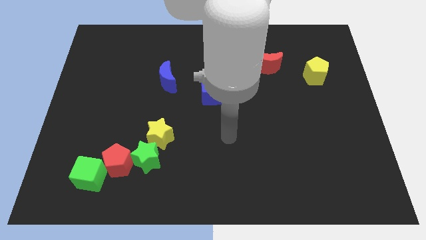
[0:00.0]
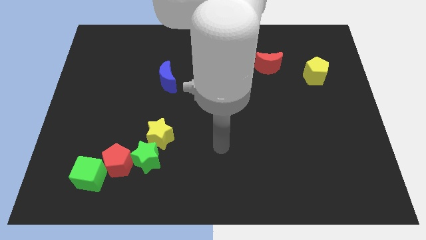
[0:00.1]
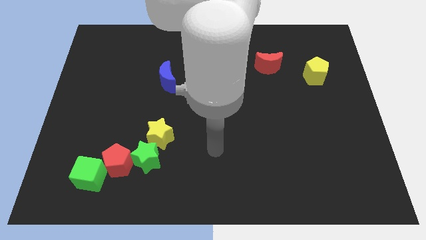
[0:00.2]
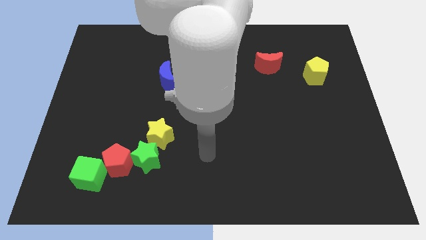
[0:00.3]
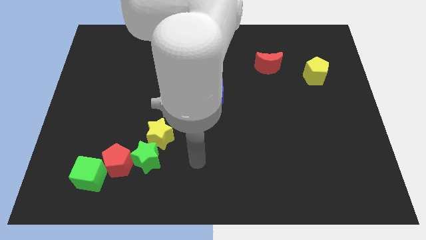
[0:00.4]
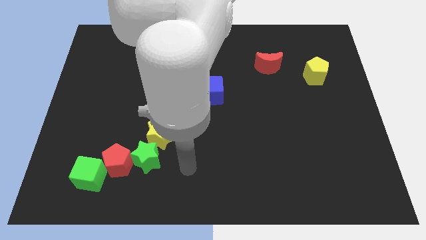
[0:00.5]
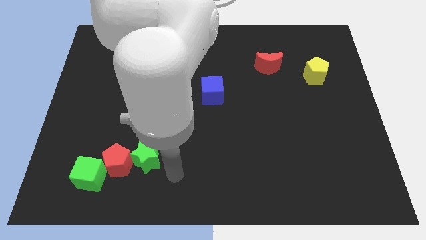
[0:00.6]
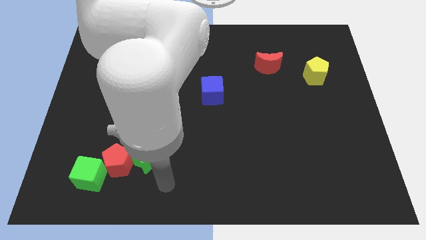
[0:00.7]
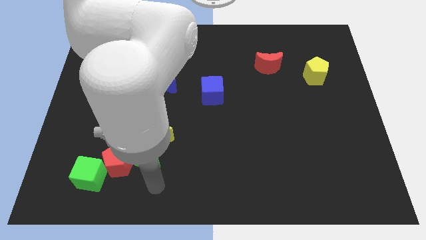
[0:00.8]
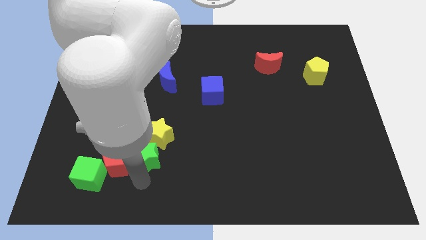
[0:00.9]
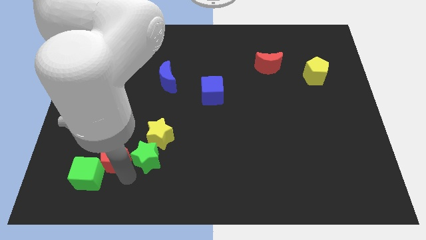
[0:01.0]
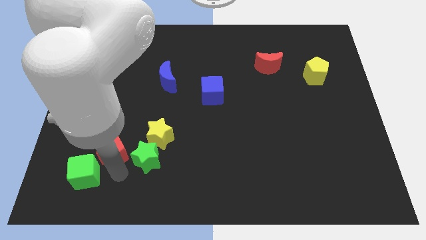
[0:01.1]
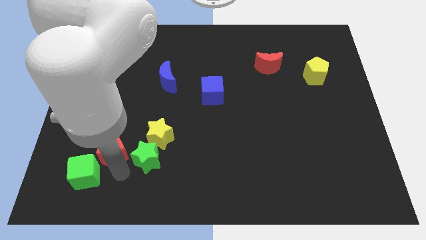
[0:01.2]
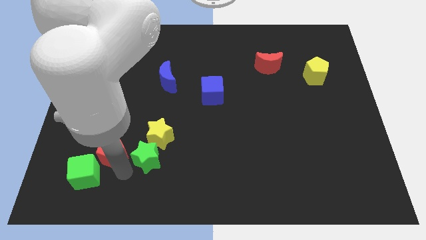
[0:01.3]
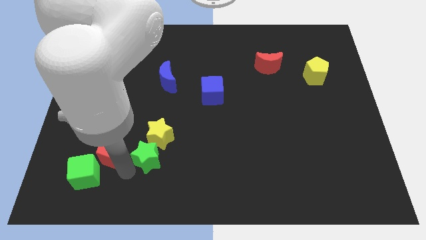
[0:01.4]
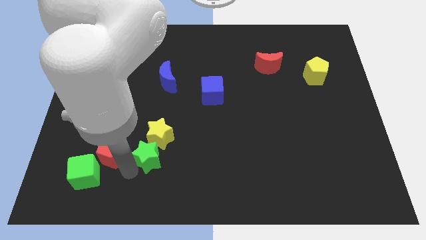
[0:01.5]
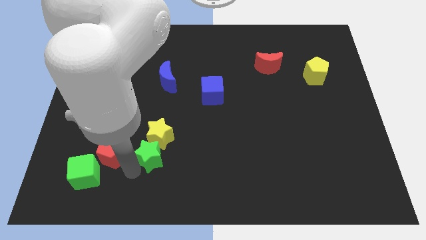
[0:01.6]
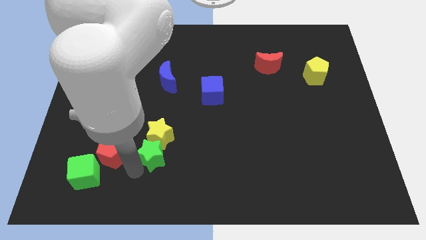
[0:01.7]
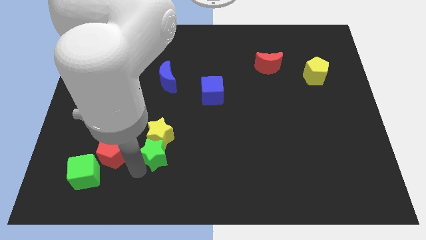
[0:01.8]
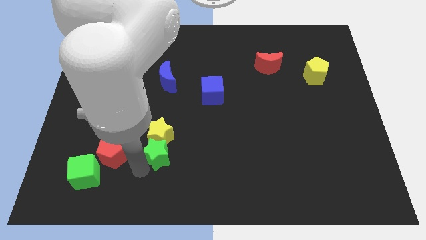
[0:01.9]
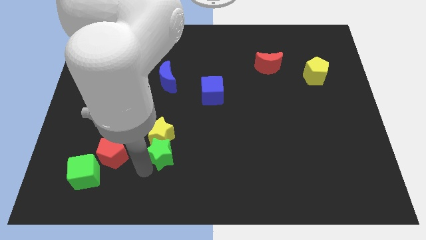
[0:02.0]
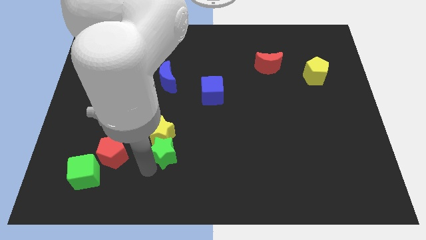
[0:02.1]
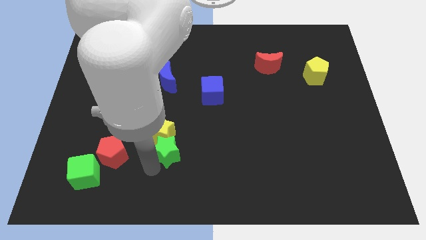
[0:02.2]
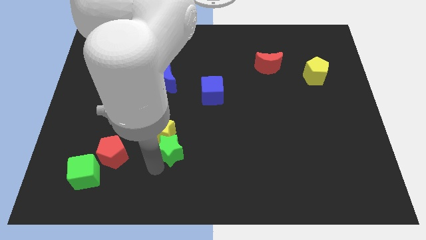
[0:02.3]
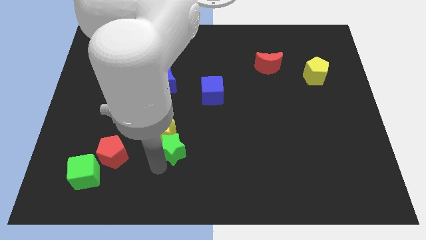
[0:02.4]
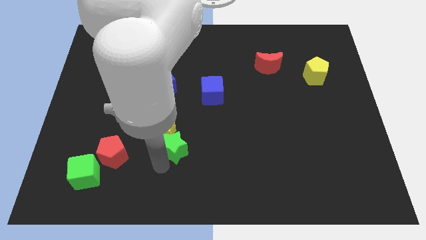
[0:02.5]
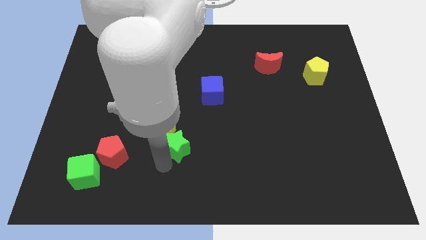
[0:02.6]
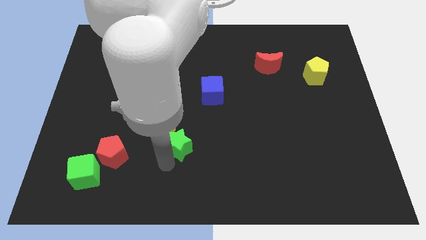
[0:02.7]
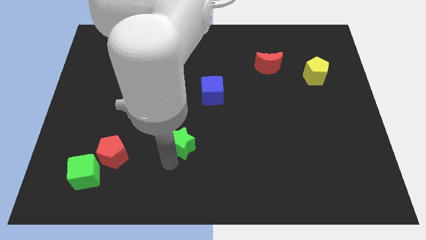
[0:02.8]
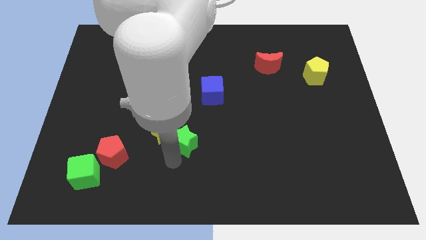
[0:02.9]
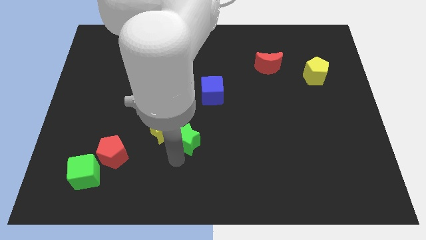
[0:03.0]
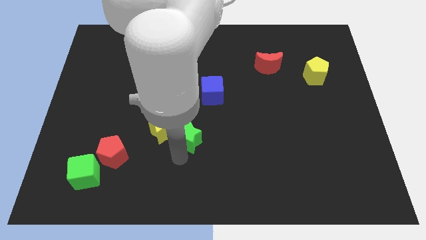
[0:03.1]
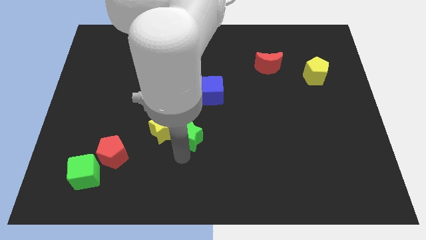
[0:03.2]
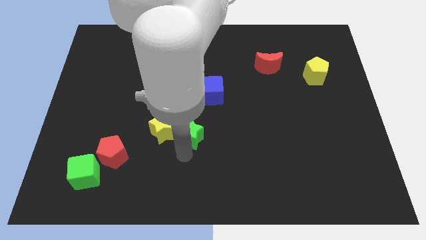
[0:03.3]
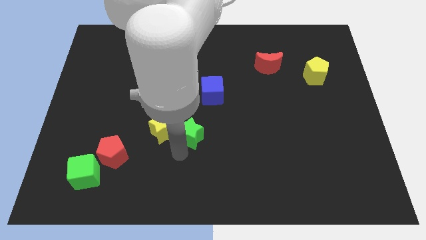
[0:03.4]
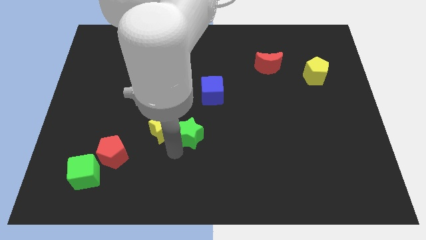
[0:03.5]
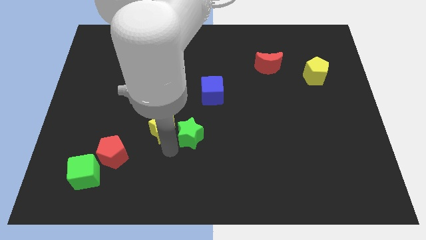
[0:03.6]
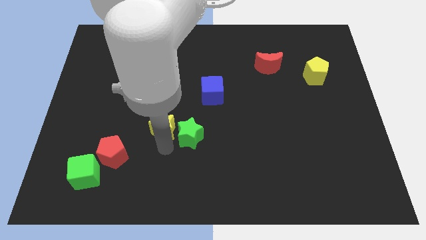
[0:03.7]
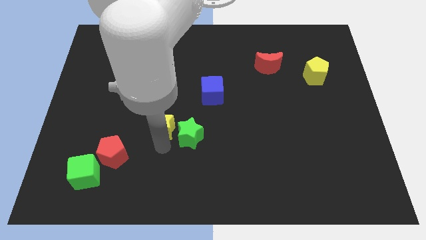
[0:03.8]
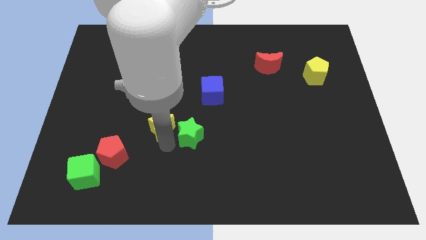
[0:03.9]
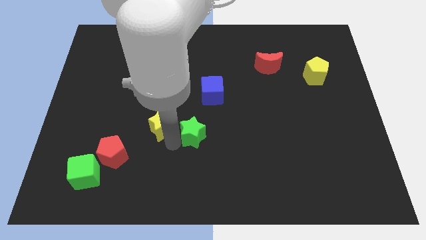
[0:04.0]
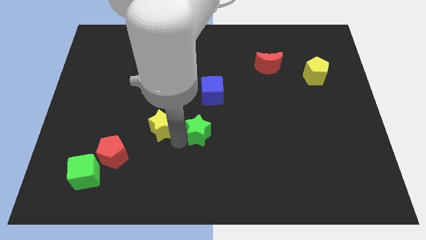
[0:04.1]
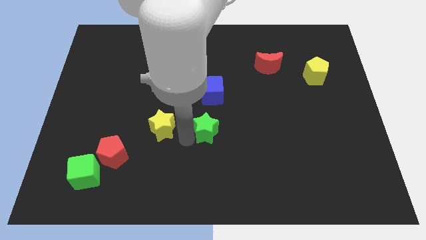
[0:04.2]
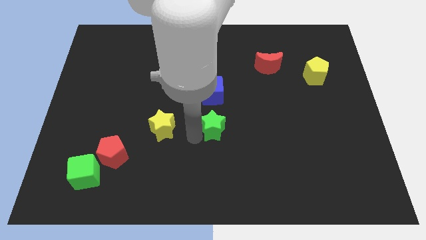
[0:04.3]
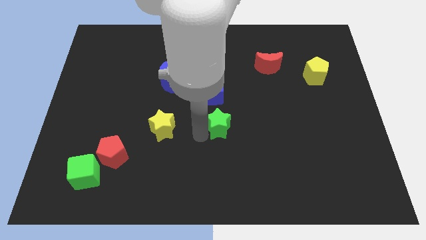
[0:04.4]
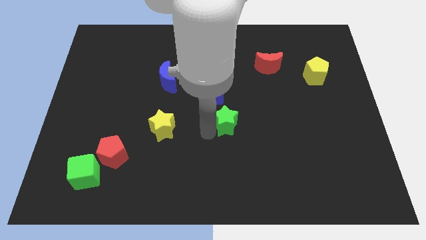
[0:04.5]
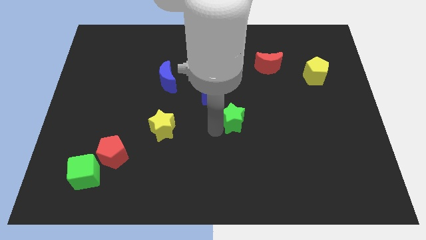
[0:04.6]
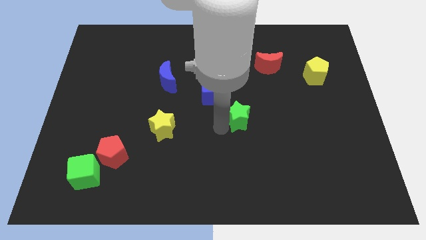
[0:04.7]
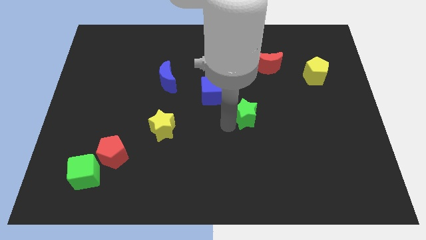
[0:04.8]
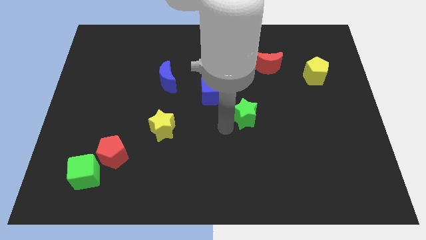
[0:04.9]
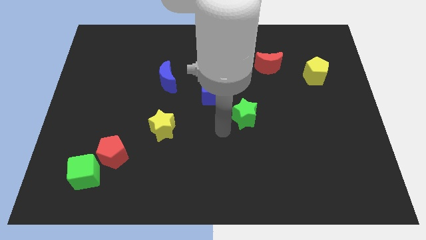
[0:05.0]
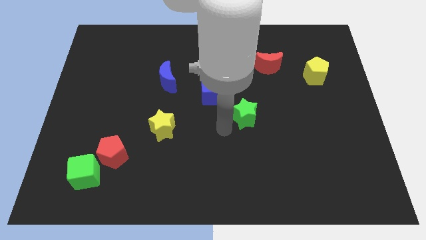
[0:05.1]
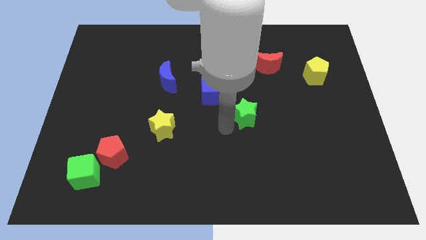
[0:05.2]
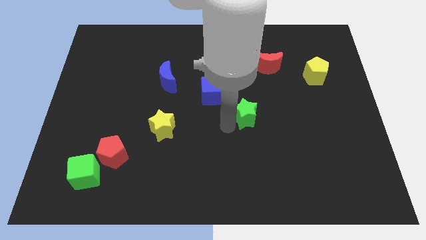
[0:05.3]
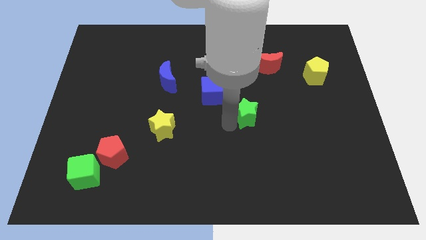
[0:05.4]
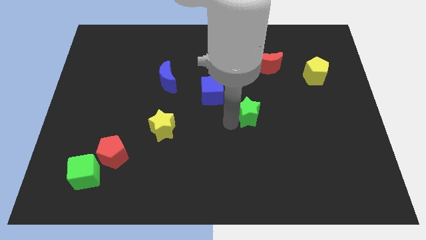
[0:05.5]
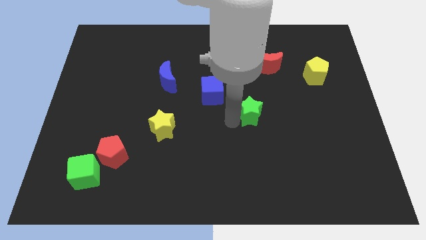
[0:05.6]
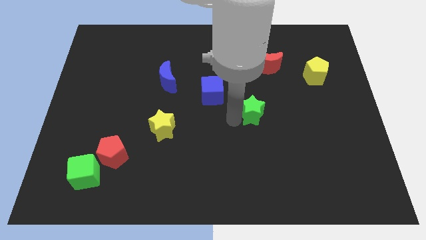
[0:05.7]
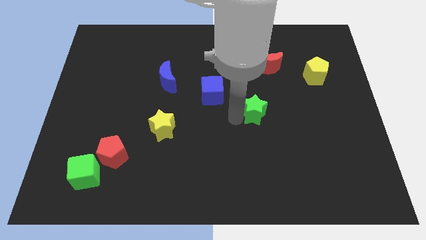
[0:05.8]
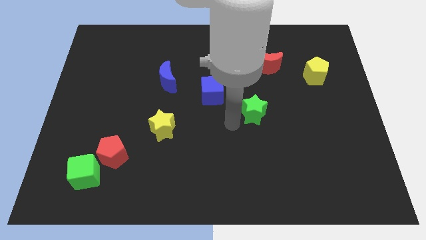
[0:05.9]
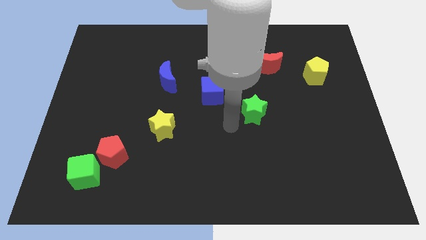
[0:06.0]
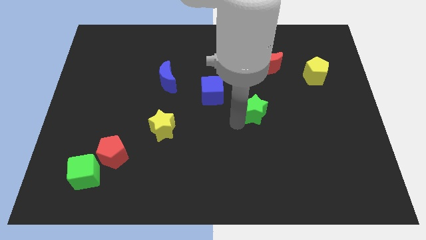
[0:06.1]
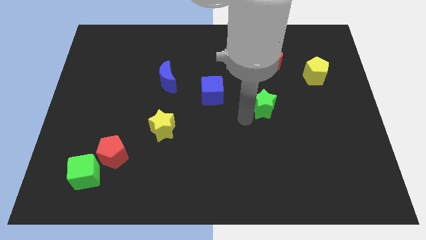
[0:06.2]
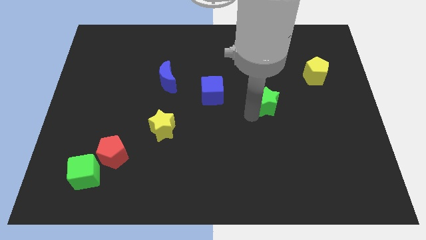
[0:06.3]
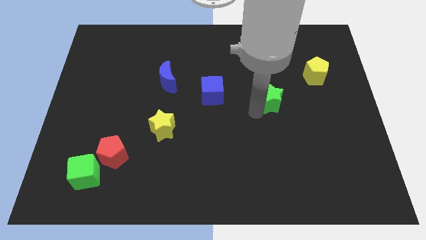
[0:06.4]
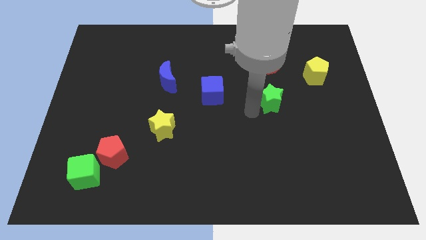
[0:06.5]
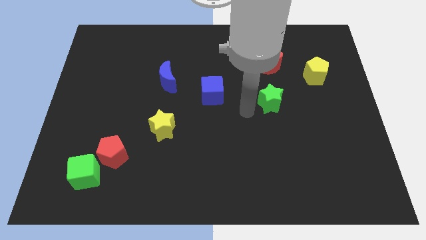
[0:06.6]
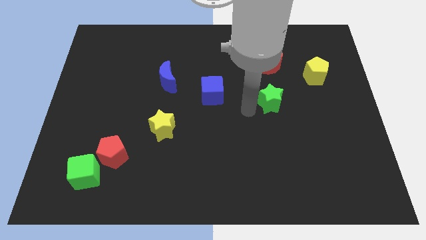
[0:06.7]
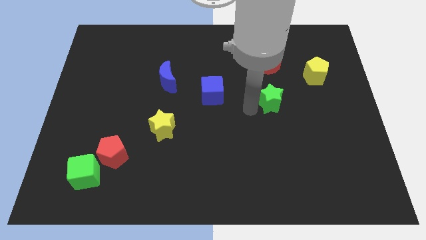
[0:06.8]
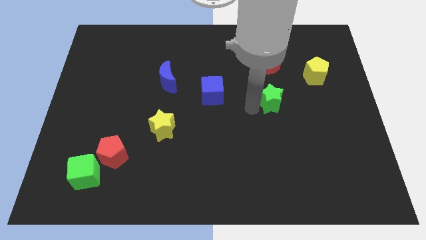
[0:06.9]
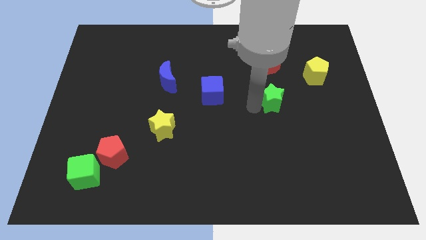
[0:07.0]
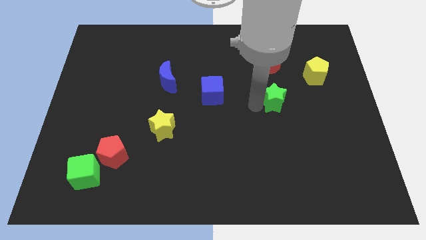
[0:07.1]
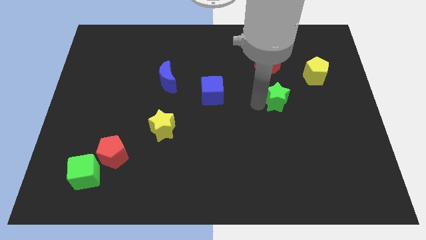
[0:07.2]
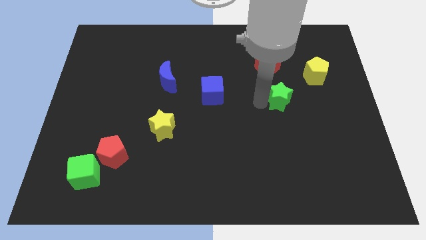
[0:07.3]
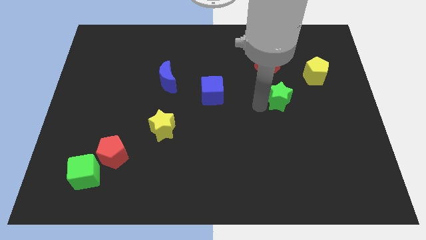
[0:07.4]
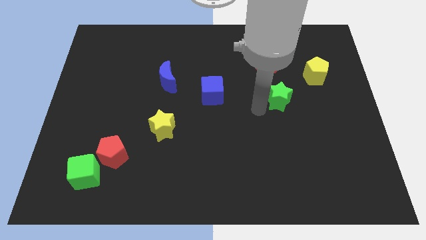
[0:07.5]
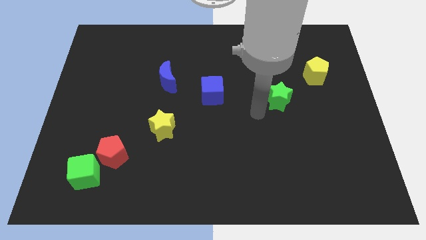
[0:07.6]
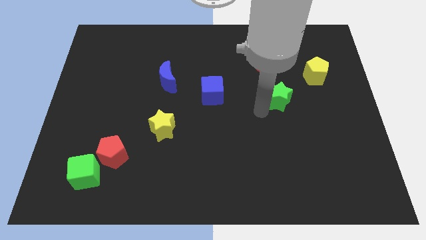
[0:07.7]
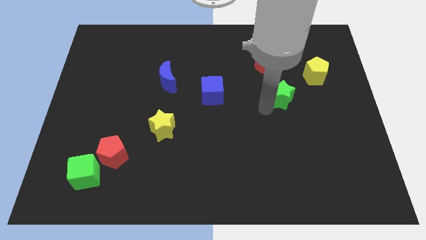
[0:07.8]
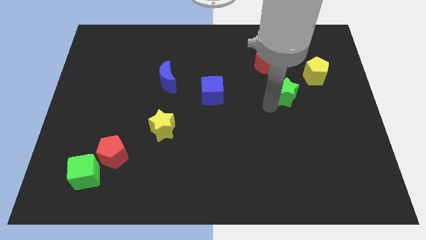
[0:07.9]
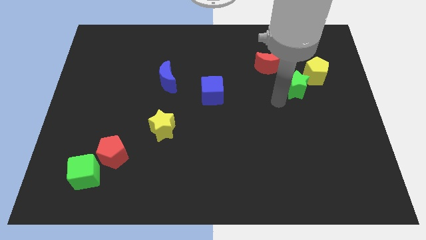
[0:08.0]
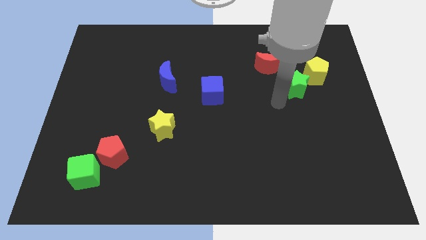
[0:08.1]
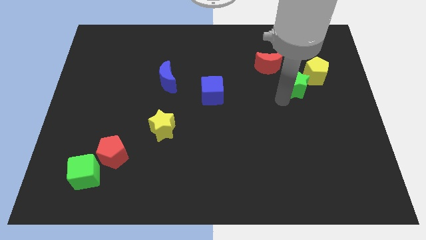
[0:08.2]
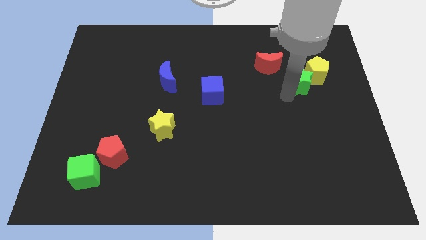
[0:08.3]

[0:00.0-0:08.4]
slide the green star close to the yellow pentagon
